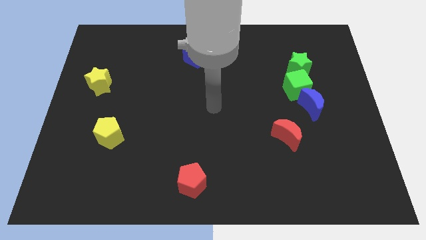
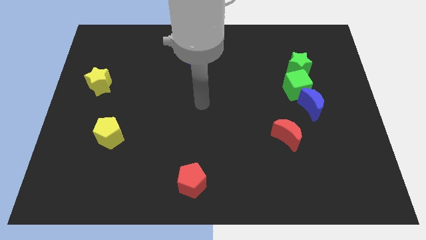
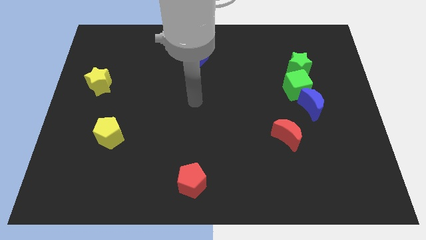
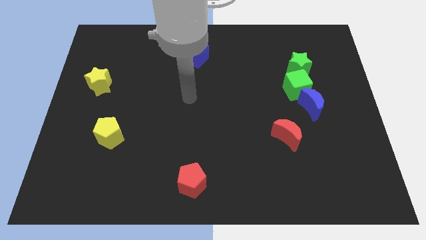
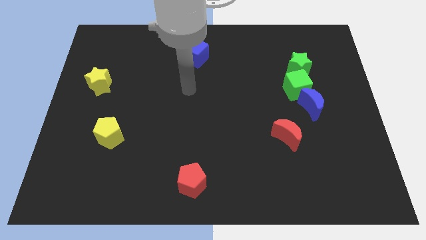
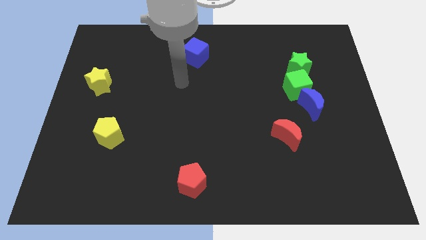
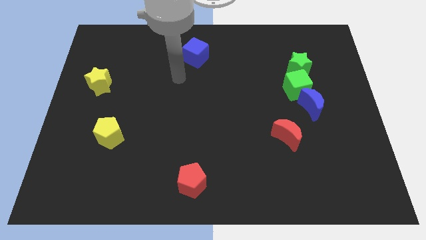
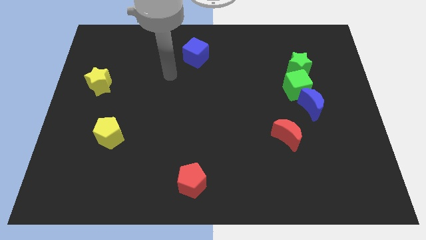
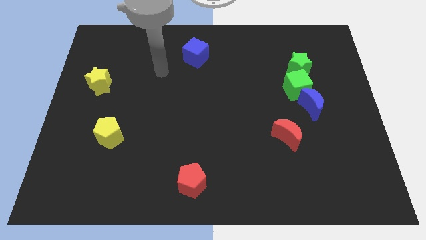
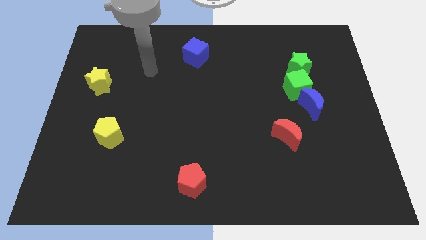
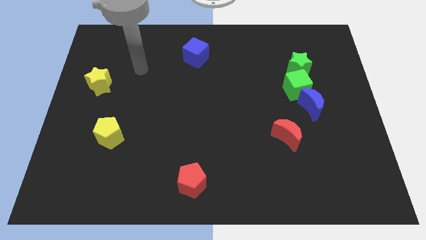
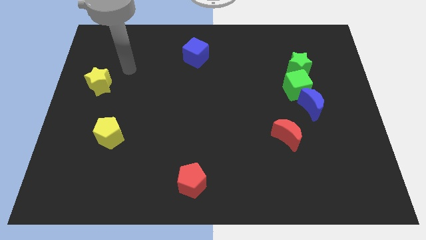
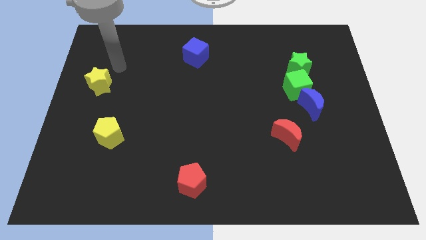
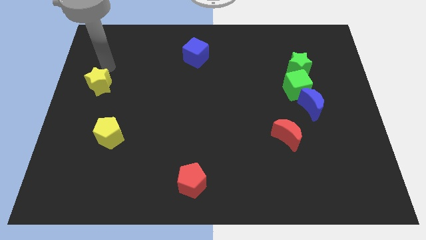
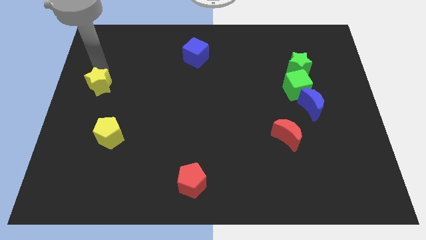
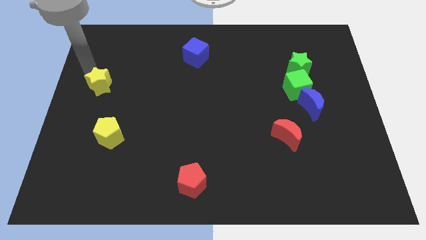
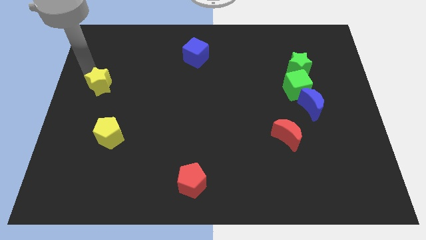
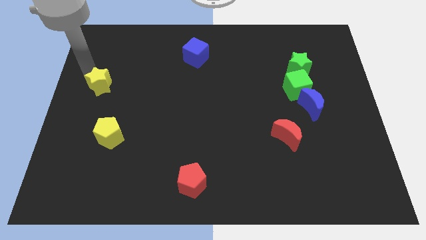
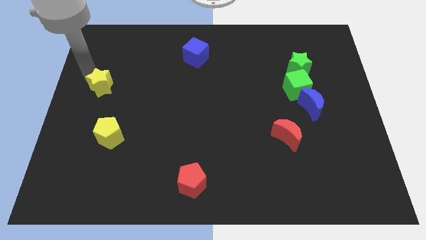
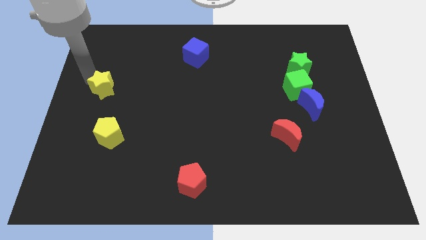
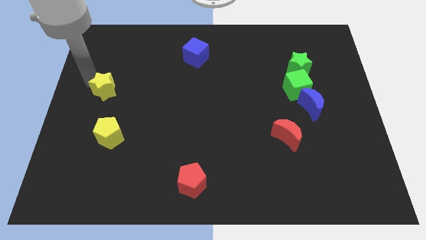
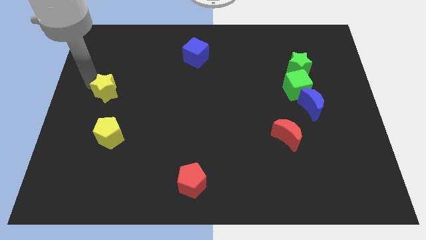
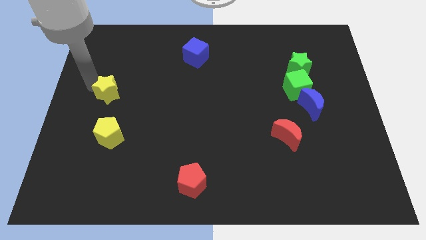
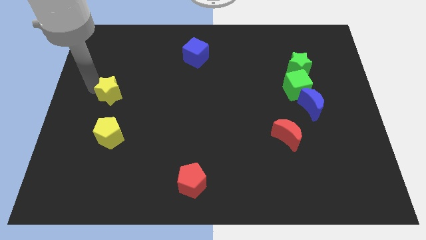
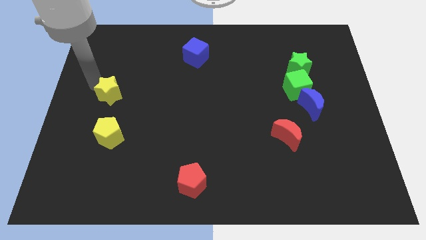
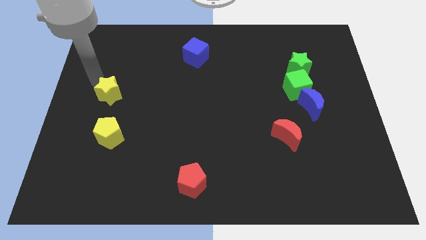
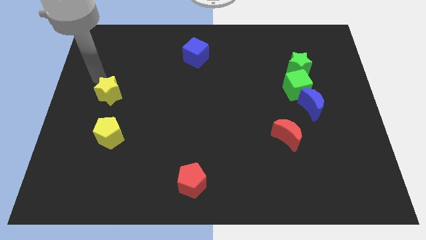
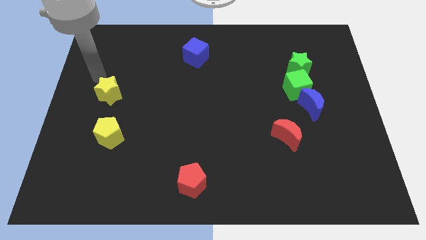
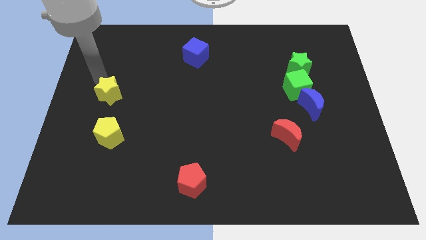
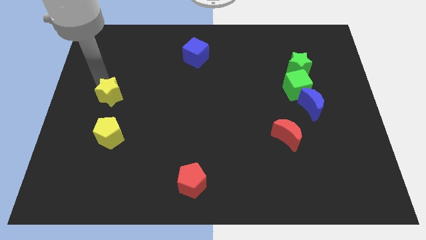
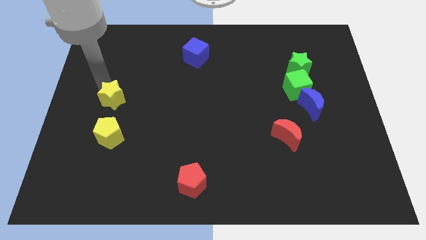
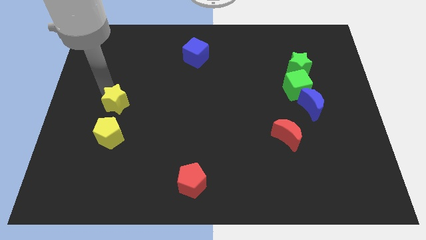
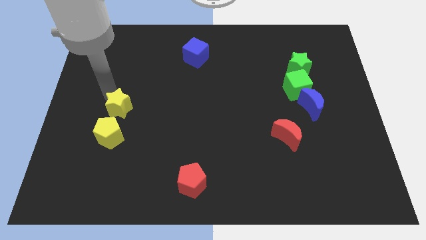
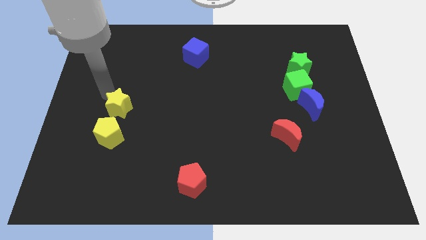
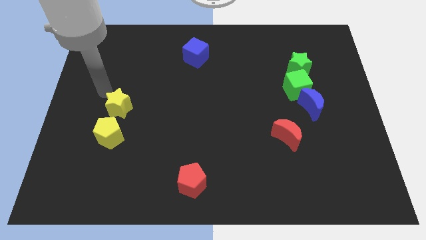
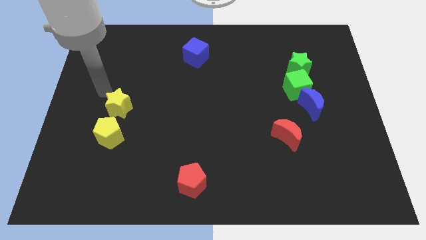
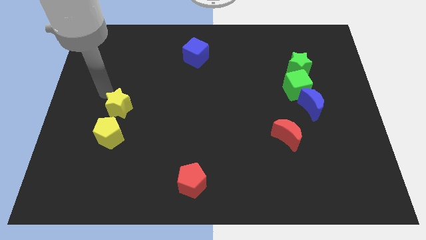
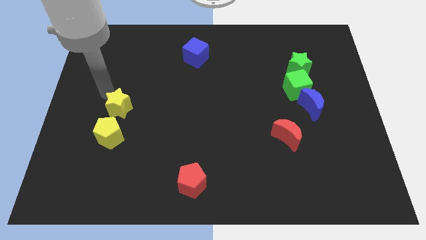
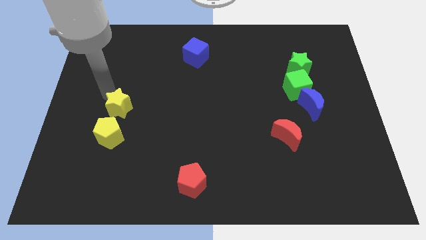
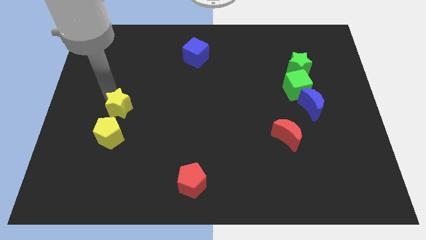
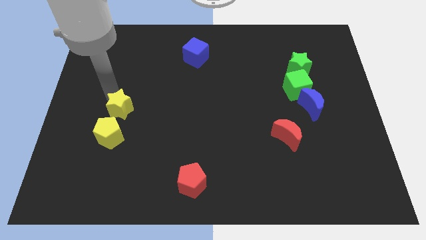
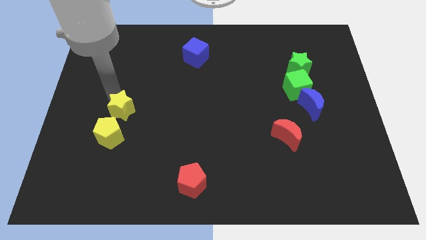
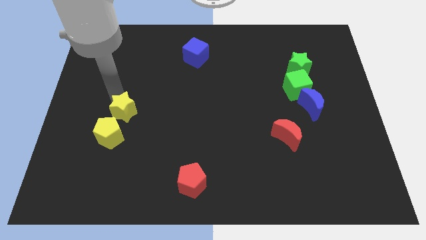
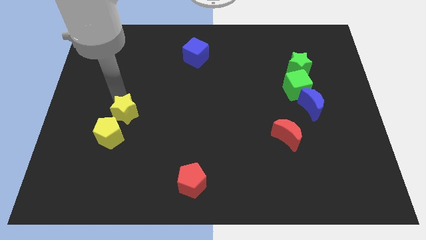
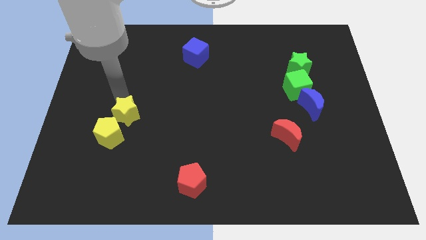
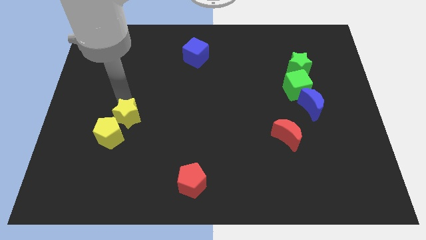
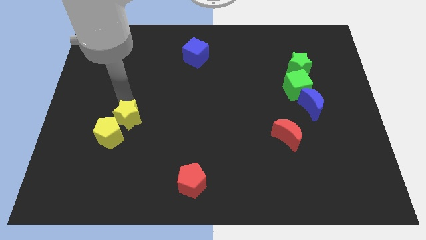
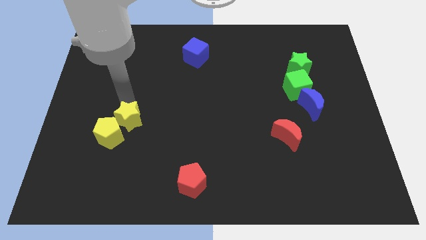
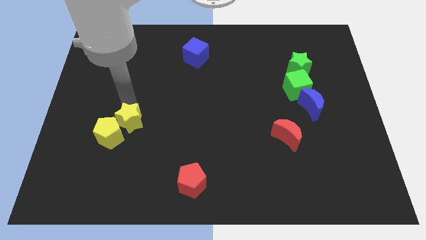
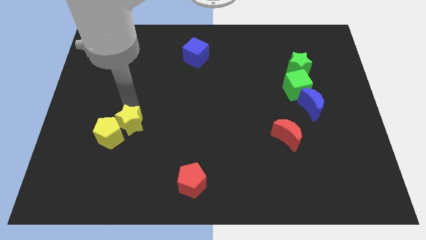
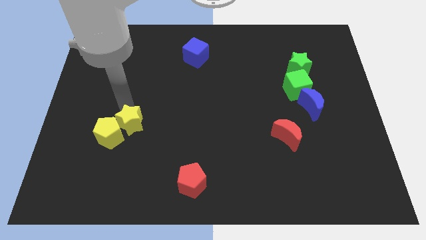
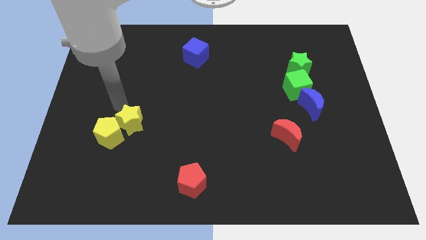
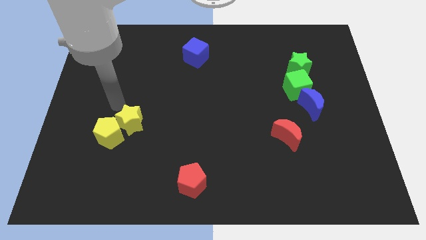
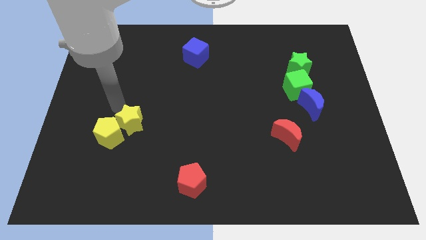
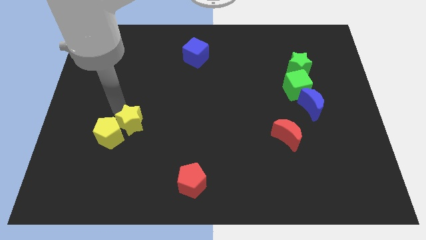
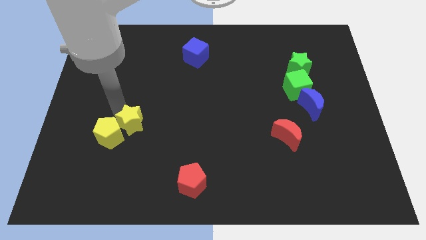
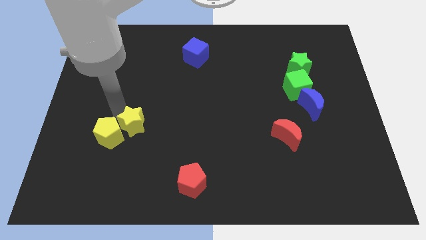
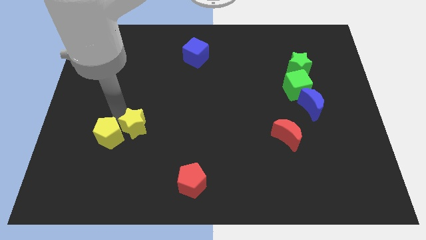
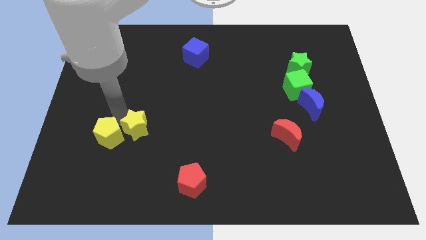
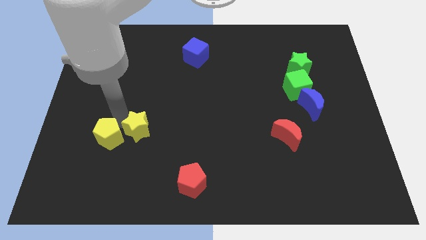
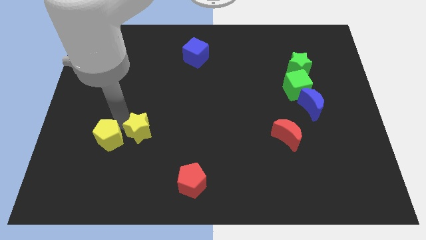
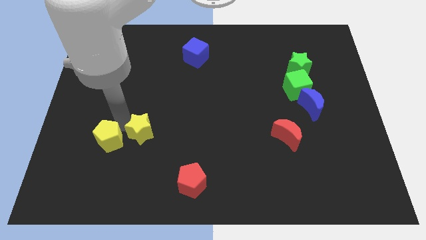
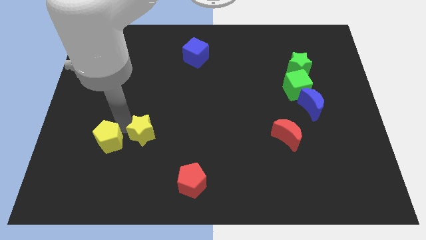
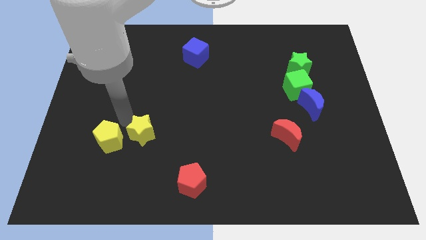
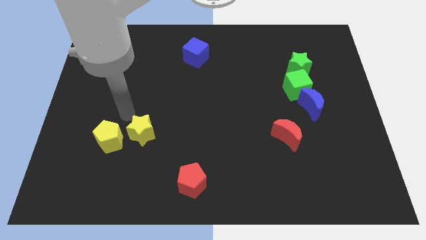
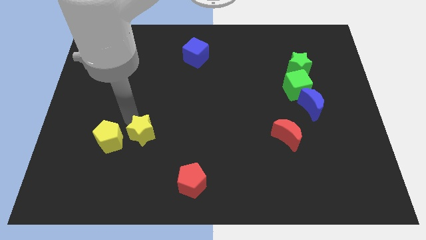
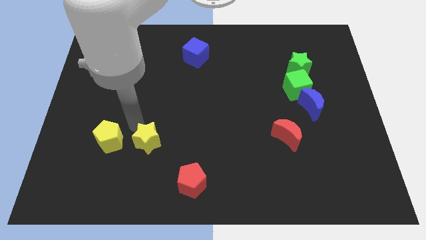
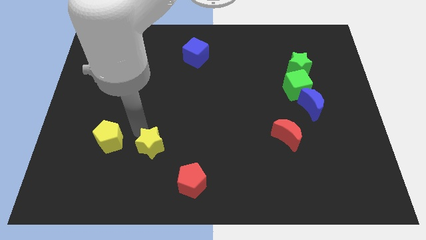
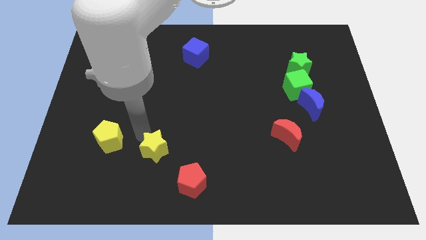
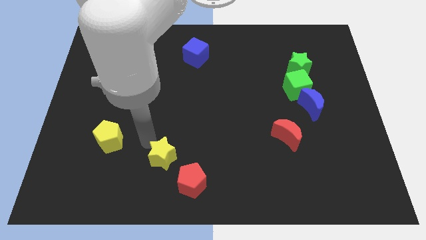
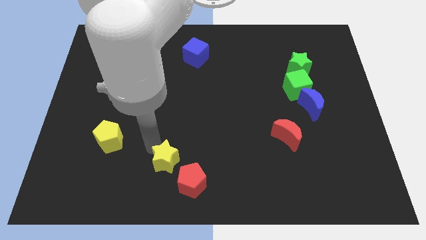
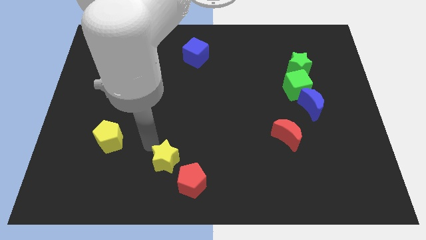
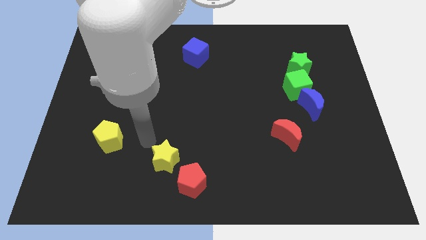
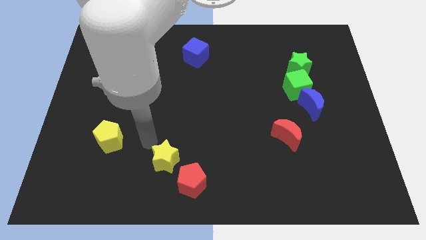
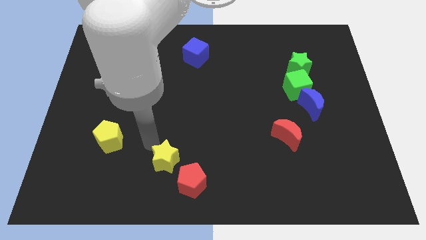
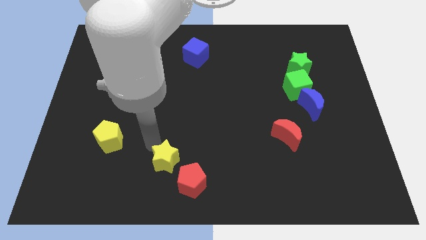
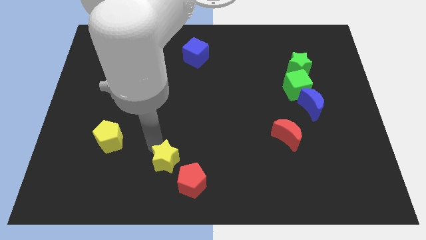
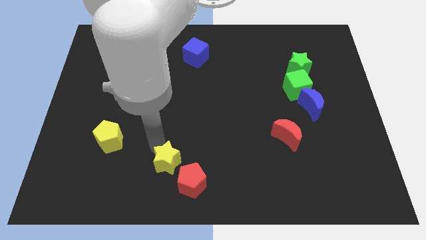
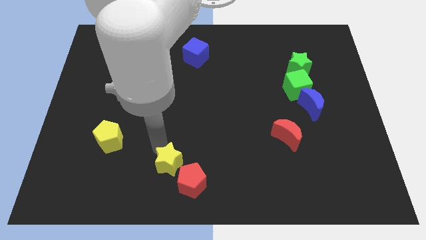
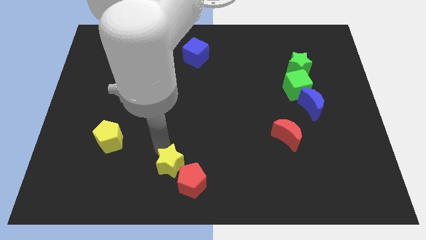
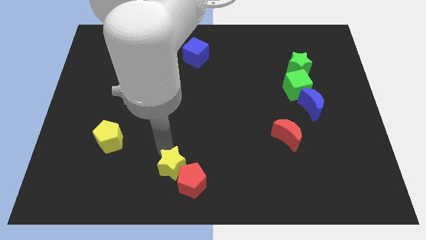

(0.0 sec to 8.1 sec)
put the yellow star next to the red pentagon
